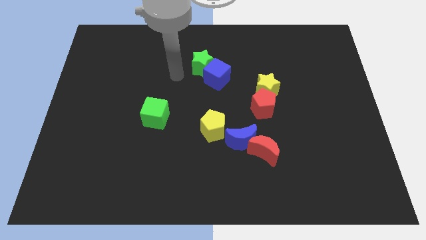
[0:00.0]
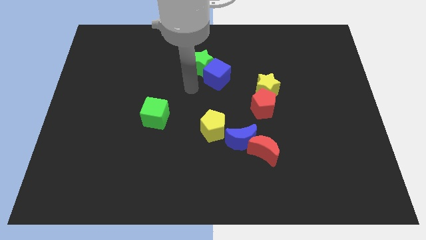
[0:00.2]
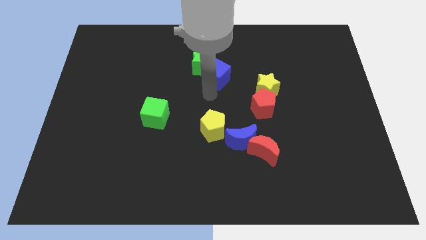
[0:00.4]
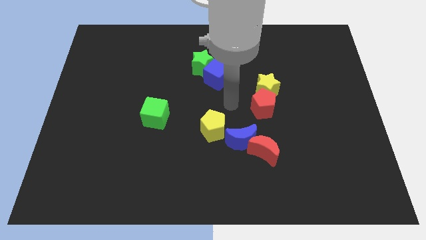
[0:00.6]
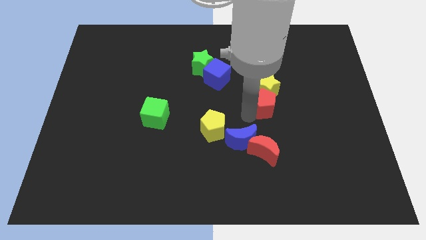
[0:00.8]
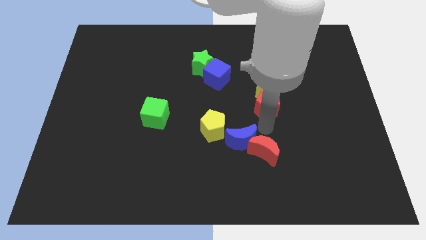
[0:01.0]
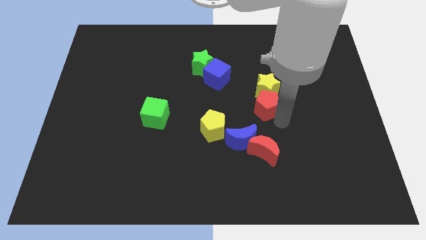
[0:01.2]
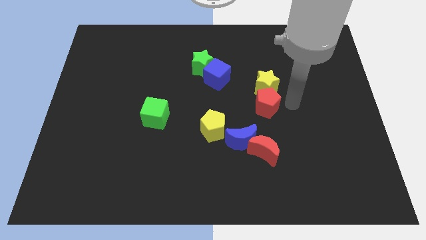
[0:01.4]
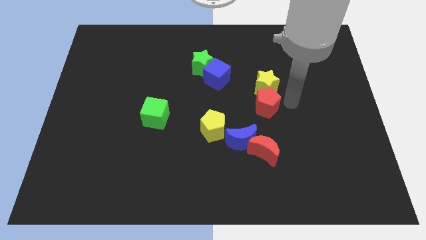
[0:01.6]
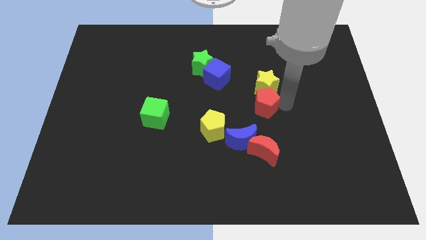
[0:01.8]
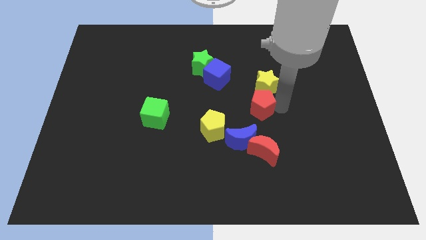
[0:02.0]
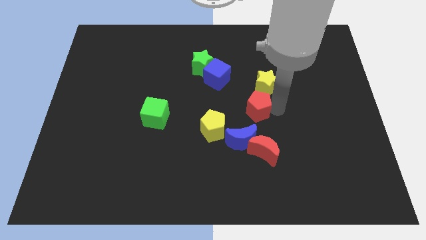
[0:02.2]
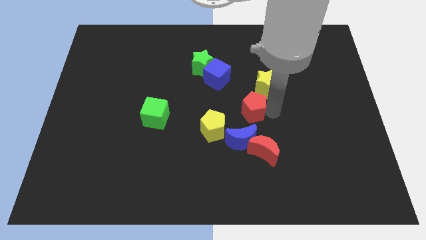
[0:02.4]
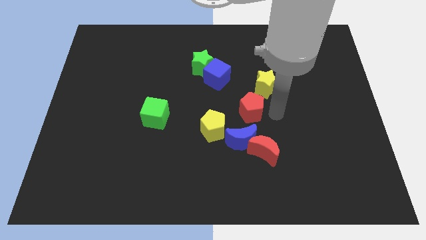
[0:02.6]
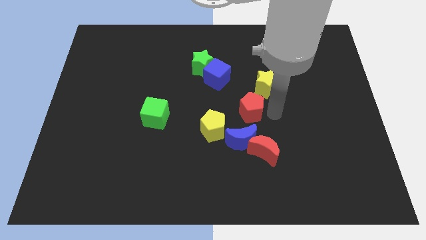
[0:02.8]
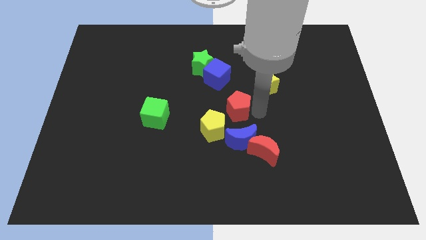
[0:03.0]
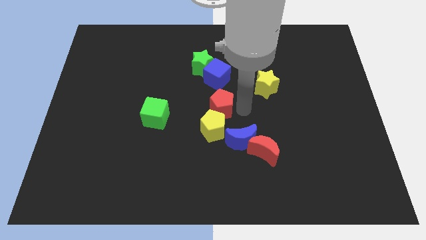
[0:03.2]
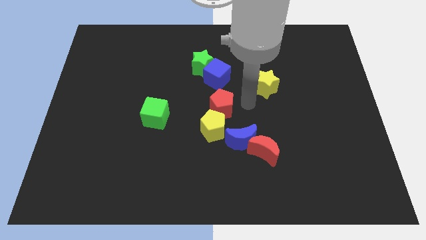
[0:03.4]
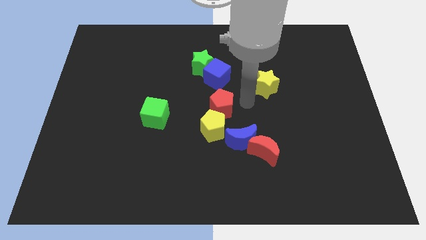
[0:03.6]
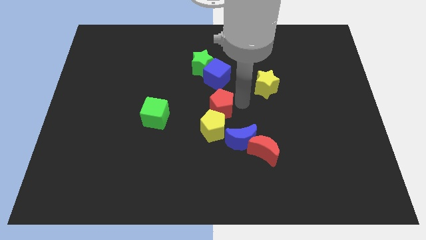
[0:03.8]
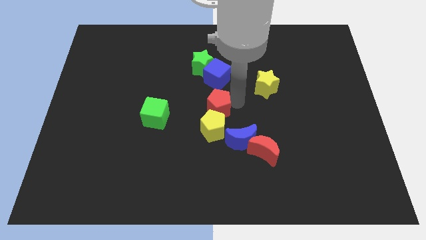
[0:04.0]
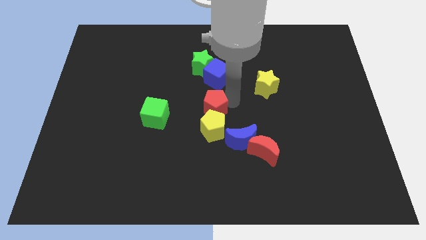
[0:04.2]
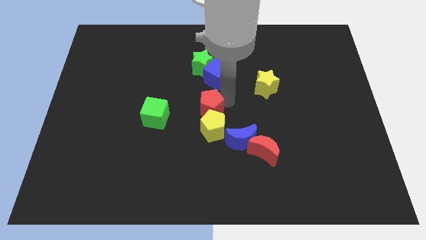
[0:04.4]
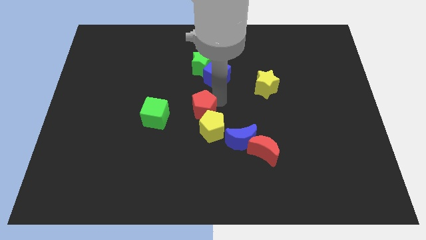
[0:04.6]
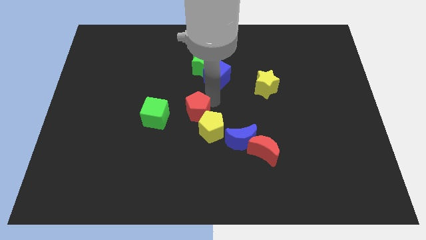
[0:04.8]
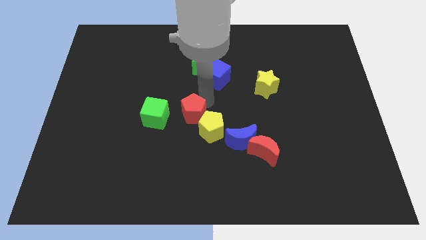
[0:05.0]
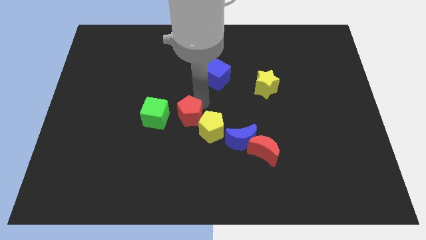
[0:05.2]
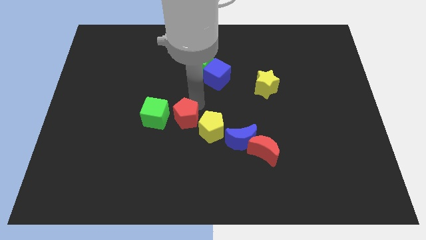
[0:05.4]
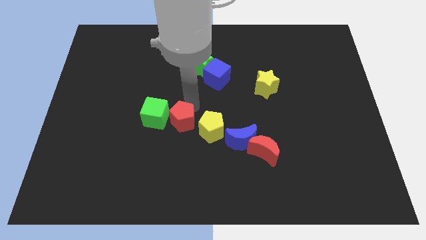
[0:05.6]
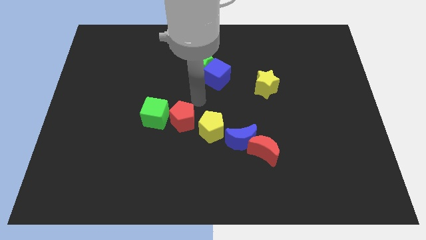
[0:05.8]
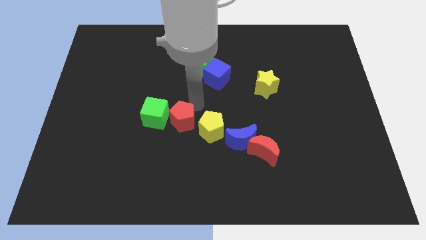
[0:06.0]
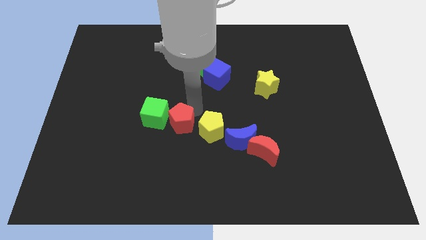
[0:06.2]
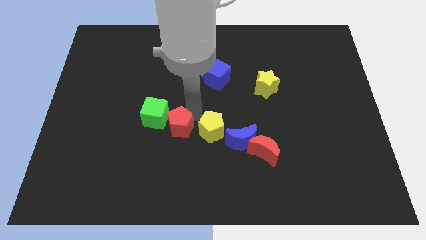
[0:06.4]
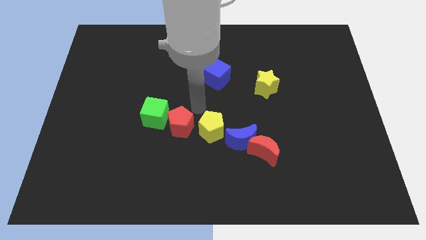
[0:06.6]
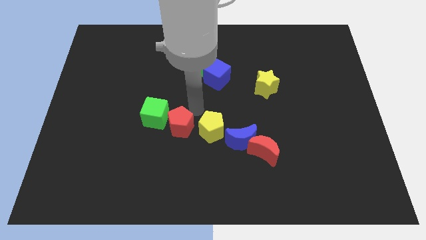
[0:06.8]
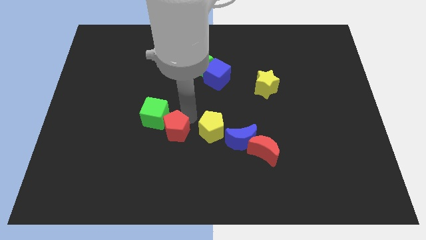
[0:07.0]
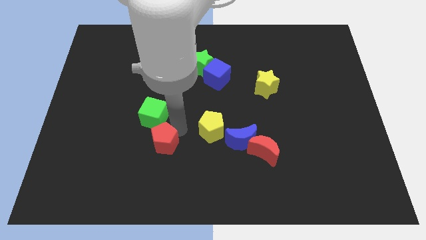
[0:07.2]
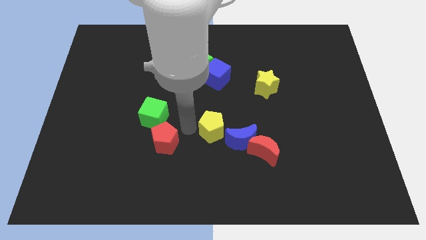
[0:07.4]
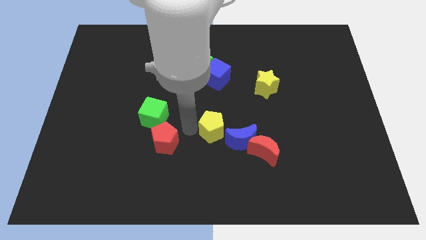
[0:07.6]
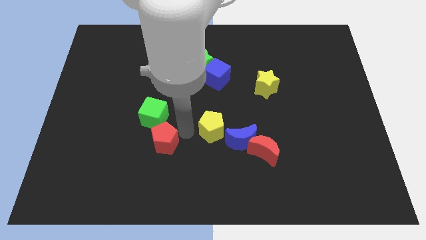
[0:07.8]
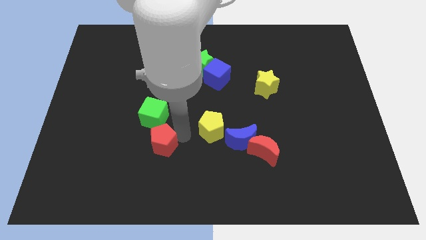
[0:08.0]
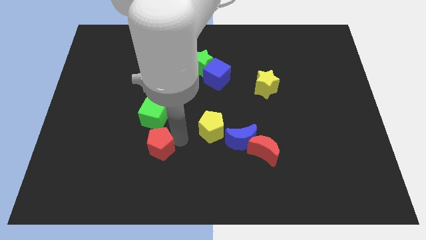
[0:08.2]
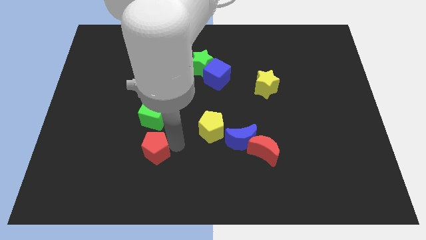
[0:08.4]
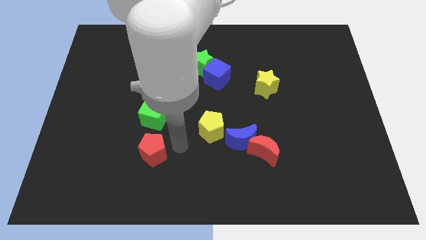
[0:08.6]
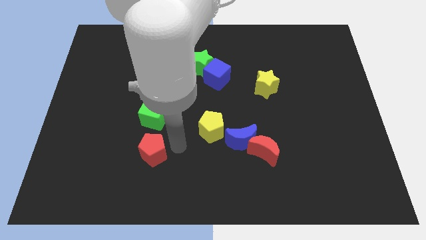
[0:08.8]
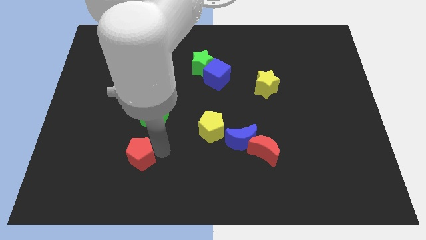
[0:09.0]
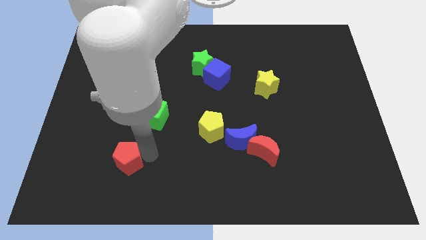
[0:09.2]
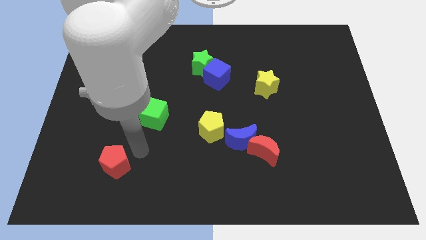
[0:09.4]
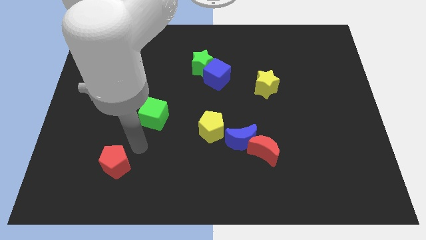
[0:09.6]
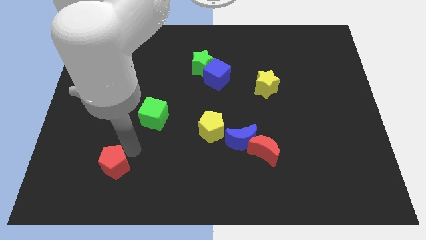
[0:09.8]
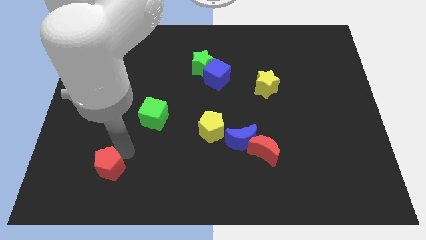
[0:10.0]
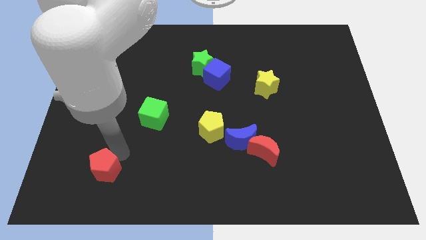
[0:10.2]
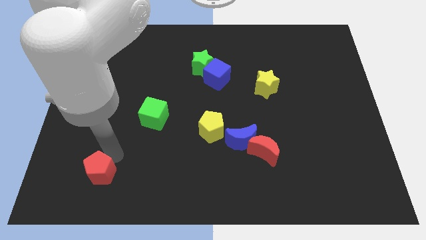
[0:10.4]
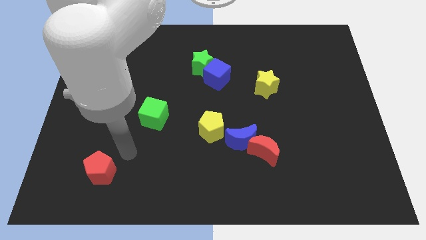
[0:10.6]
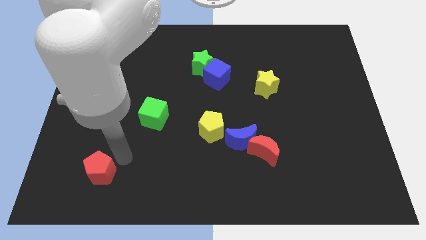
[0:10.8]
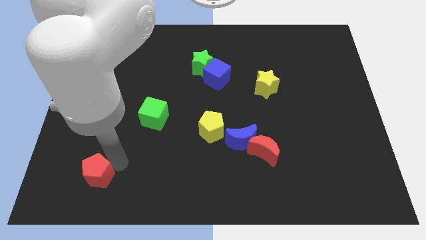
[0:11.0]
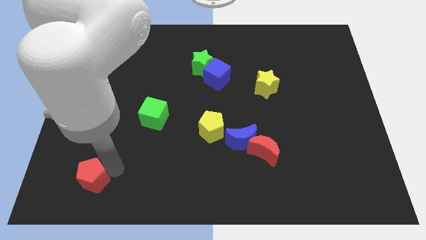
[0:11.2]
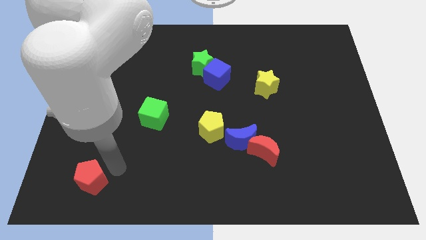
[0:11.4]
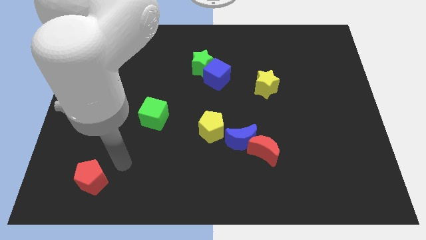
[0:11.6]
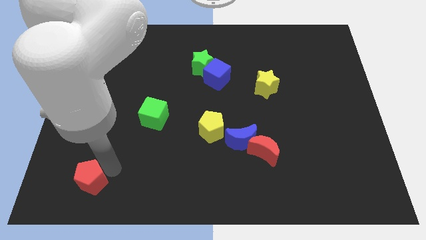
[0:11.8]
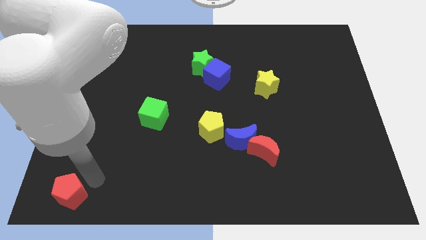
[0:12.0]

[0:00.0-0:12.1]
slide the red pentagon to the bottom left corner

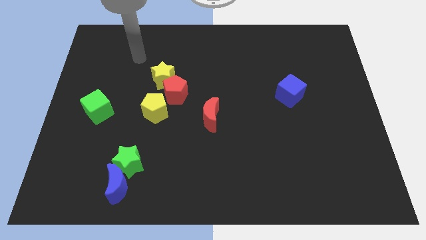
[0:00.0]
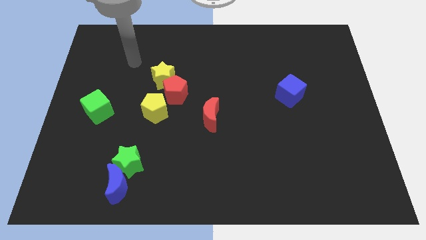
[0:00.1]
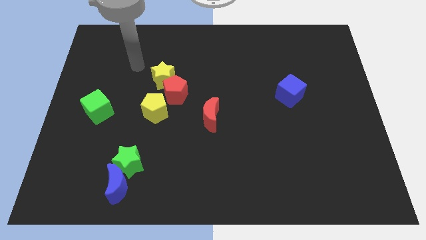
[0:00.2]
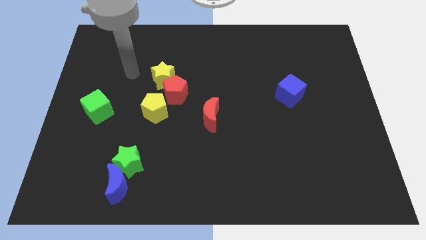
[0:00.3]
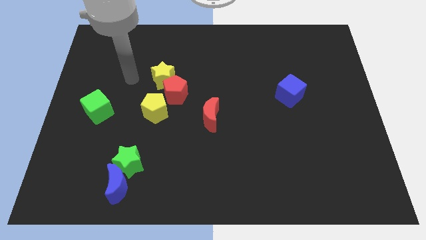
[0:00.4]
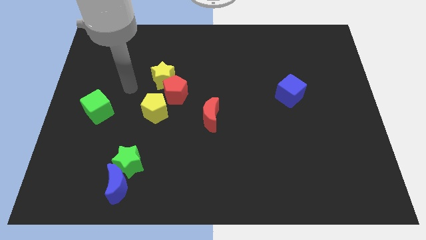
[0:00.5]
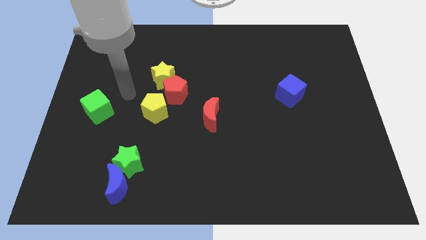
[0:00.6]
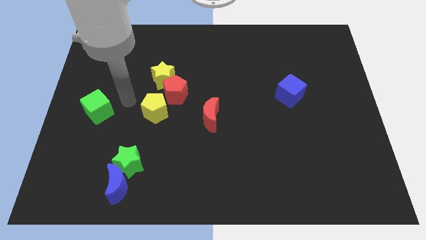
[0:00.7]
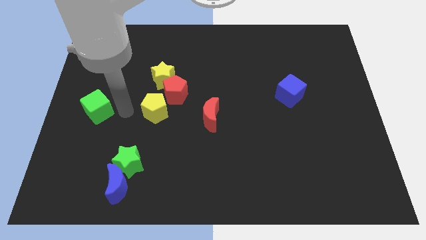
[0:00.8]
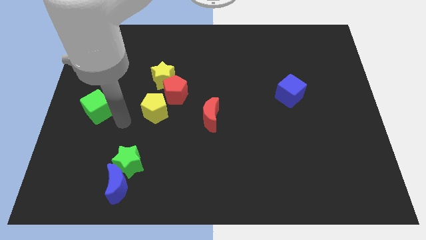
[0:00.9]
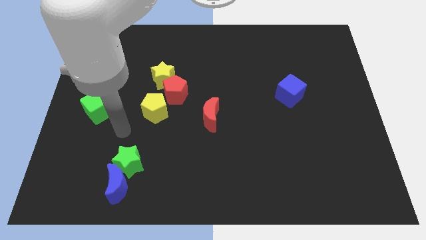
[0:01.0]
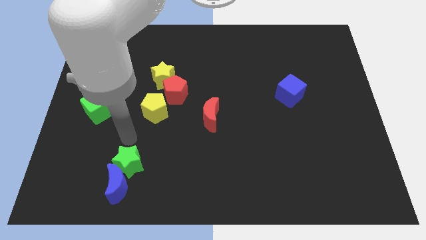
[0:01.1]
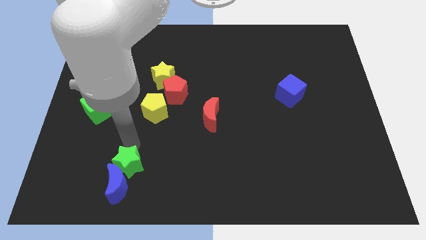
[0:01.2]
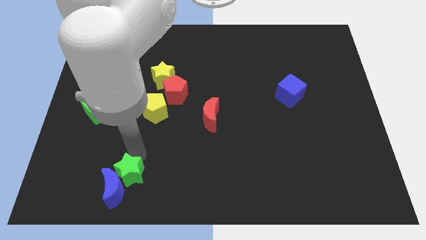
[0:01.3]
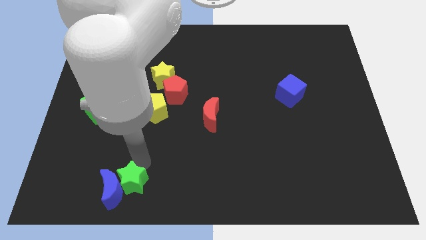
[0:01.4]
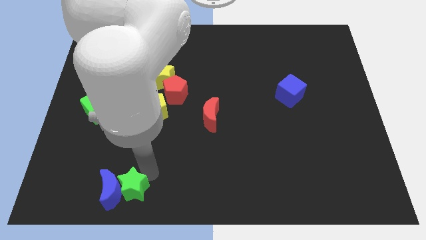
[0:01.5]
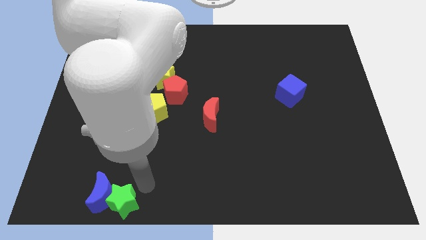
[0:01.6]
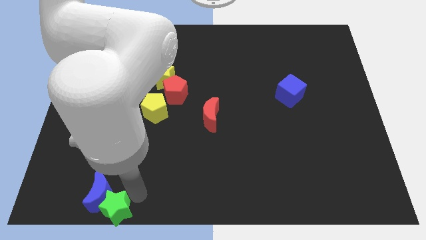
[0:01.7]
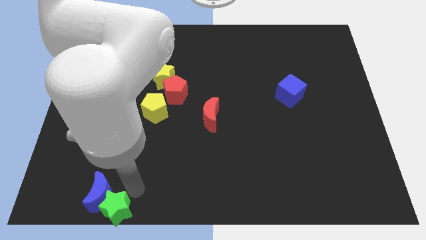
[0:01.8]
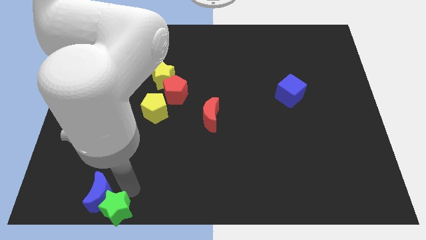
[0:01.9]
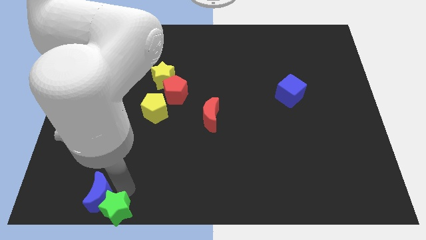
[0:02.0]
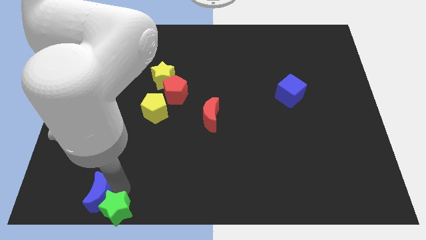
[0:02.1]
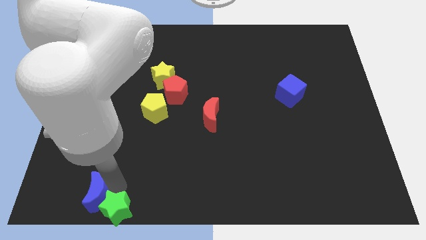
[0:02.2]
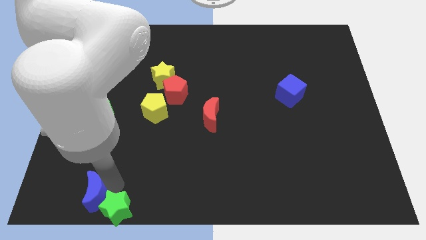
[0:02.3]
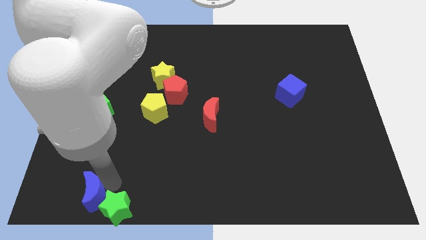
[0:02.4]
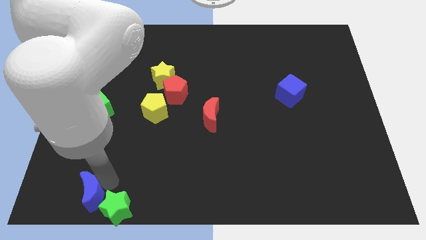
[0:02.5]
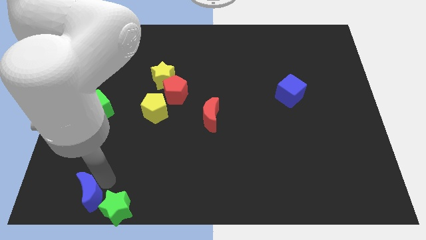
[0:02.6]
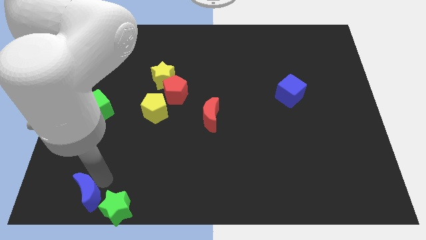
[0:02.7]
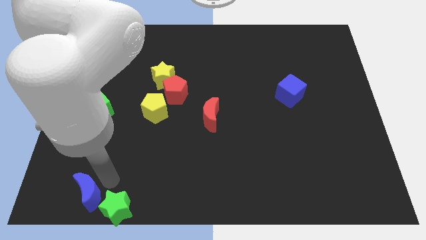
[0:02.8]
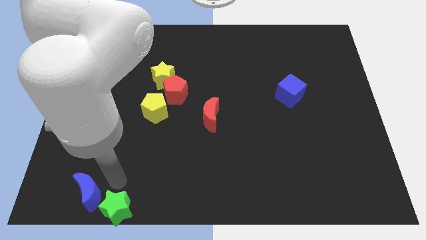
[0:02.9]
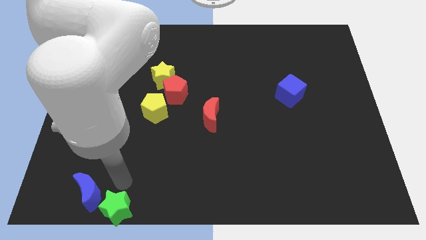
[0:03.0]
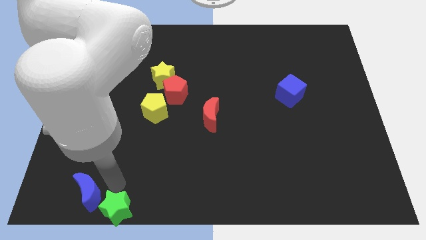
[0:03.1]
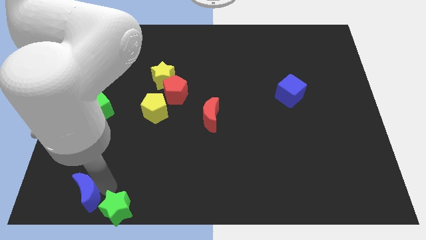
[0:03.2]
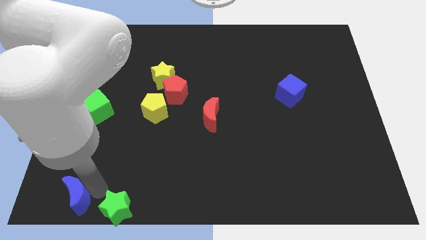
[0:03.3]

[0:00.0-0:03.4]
push the blue moon to the bottom left
